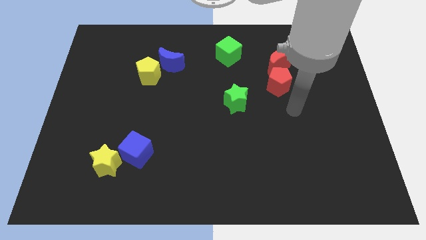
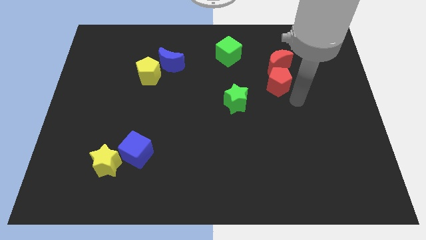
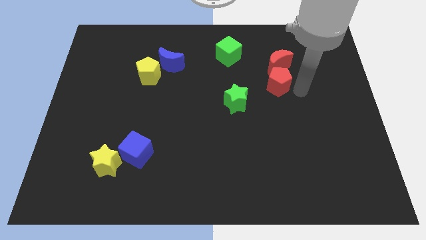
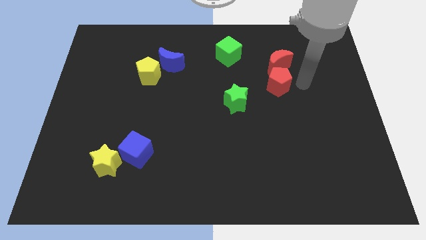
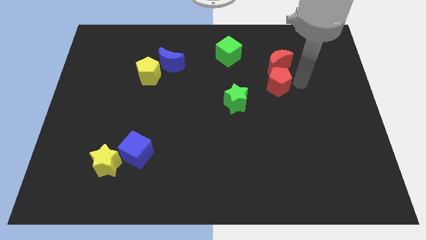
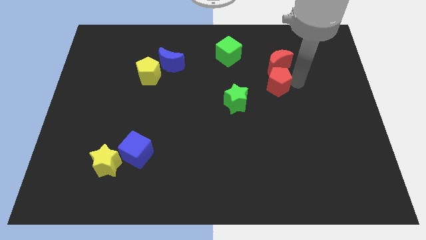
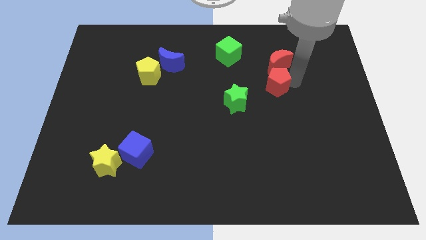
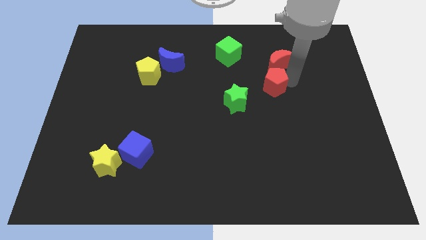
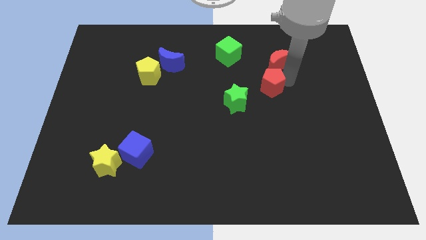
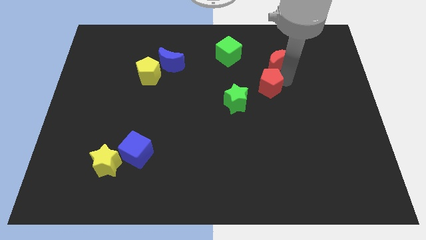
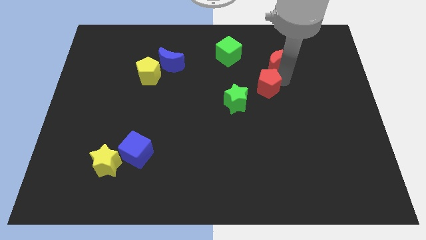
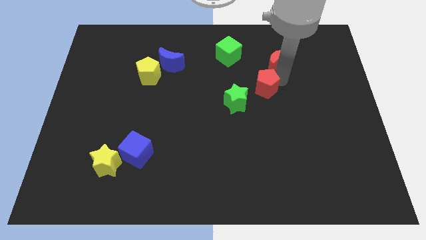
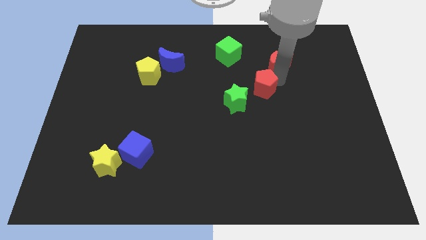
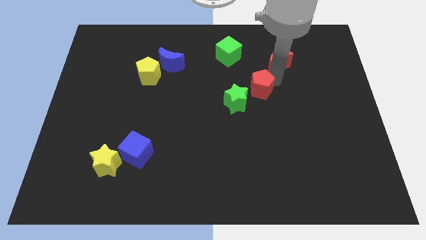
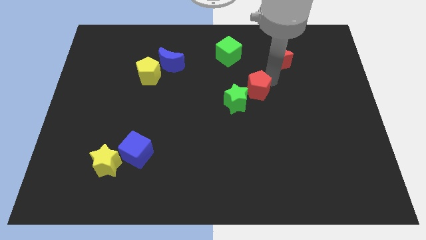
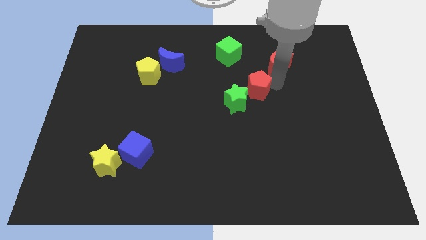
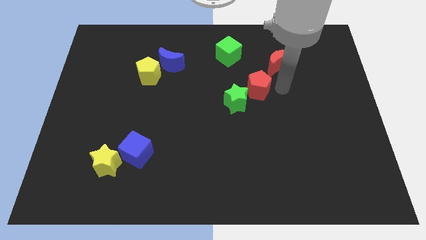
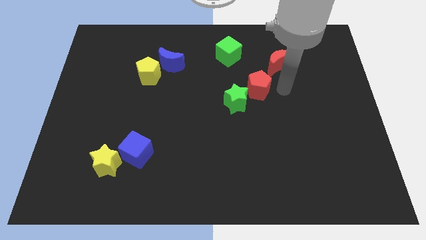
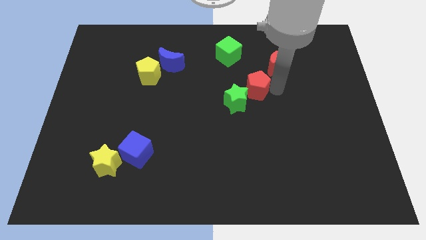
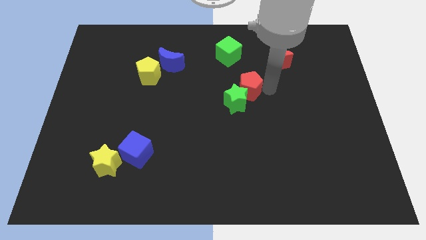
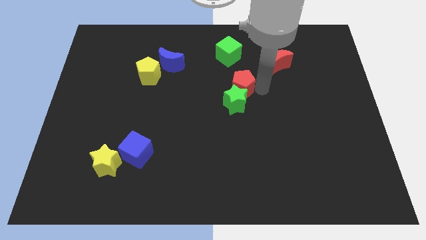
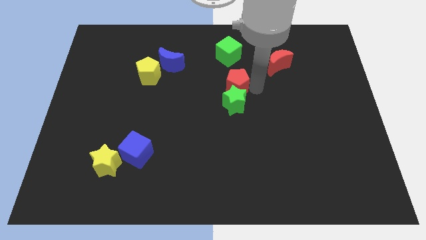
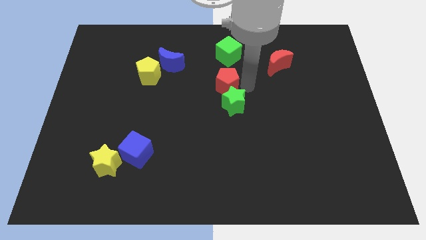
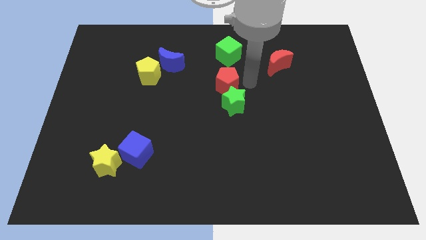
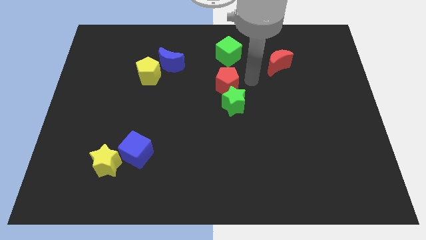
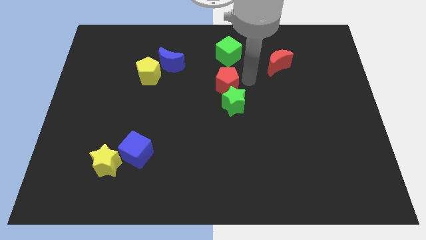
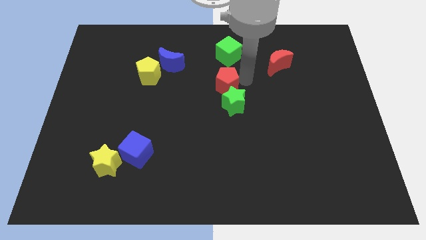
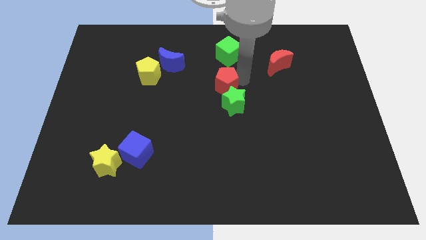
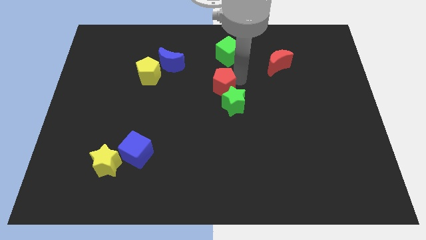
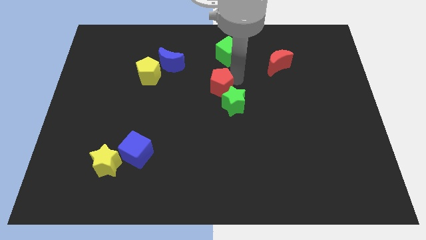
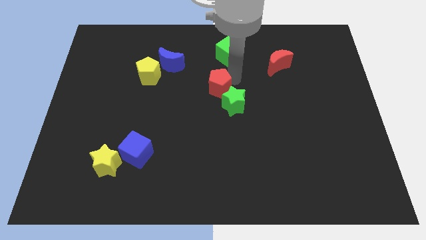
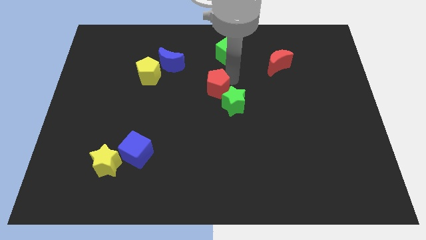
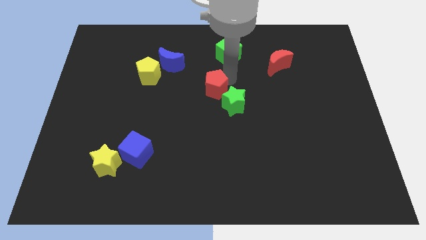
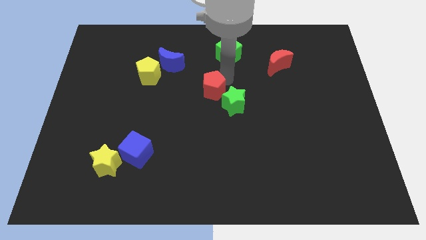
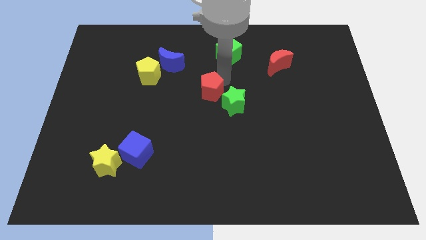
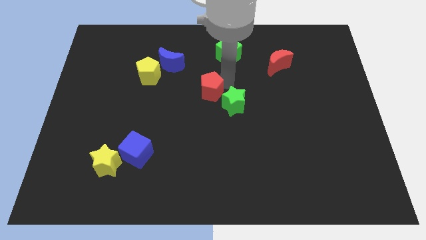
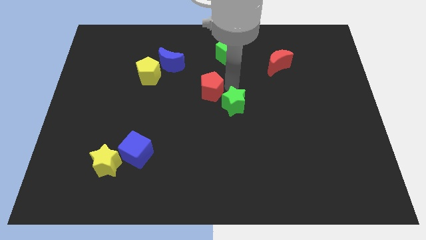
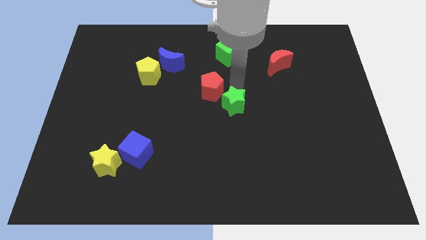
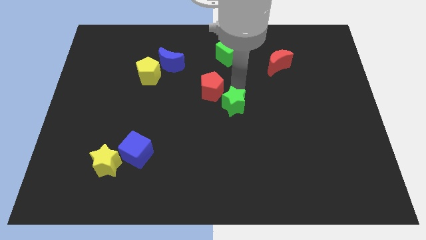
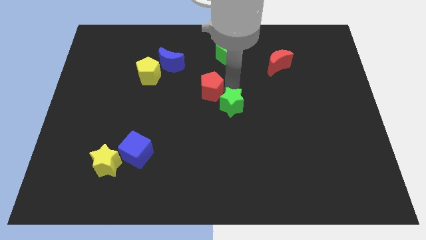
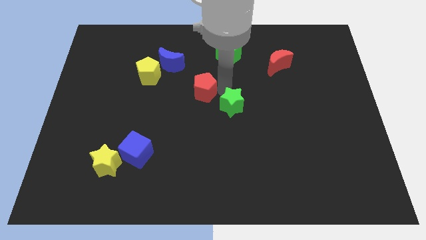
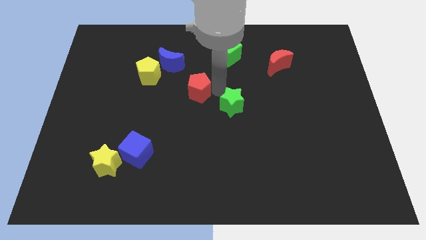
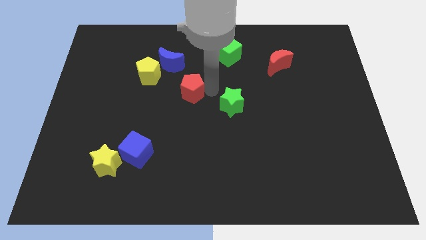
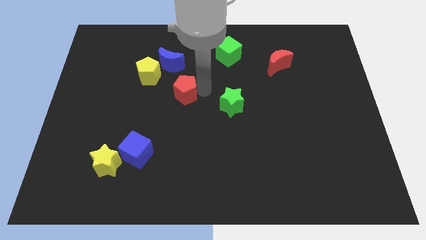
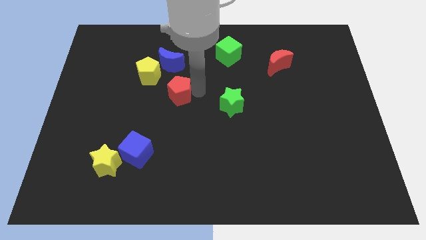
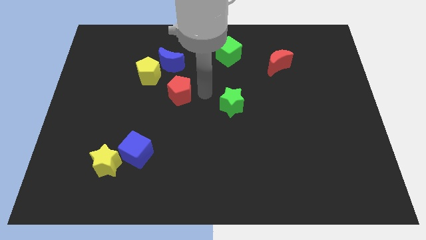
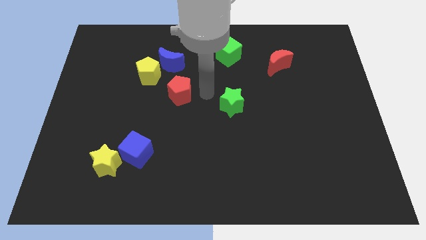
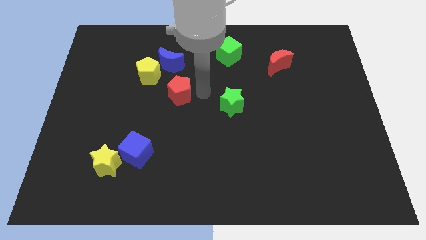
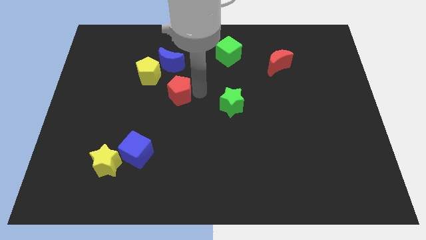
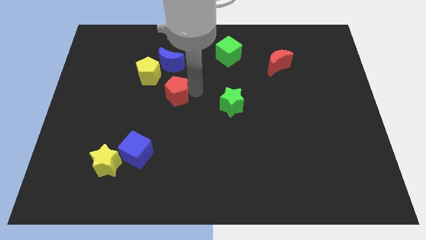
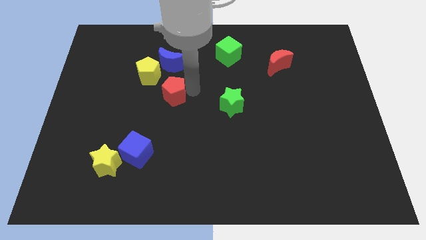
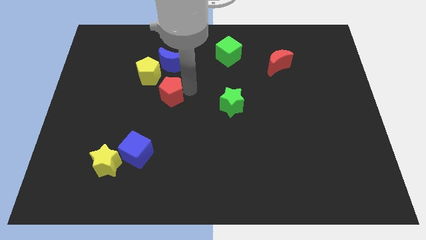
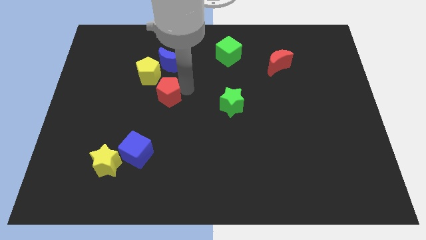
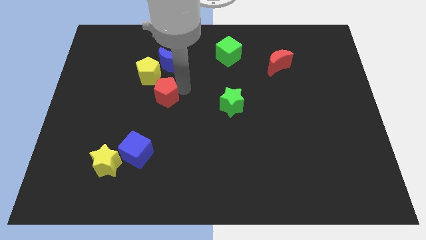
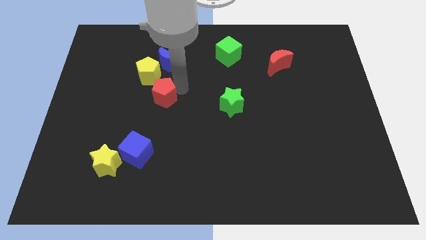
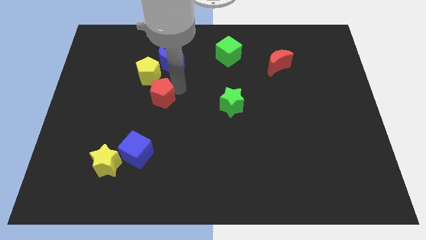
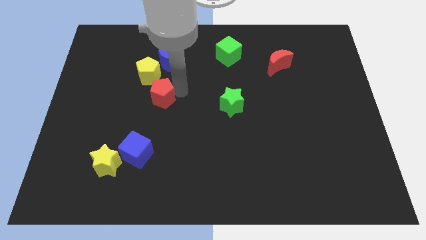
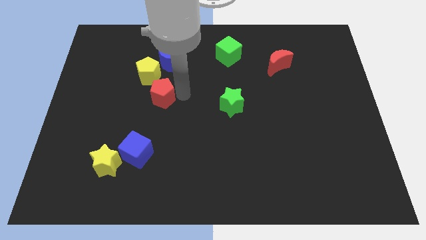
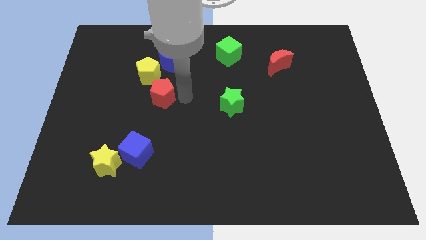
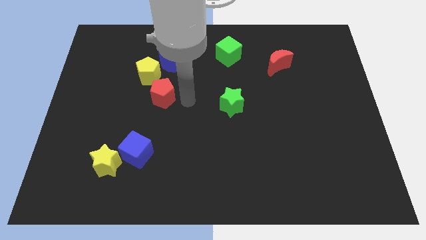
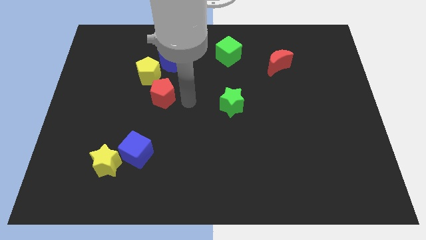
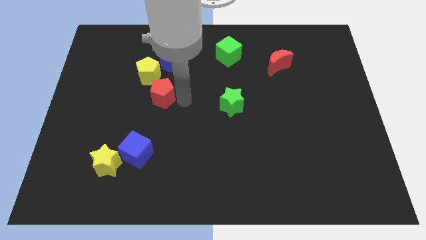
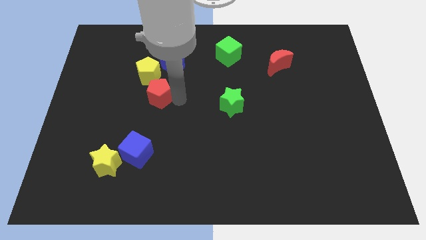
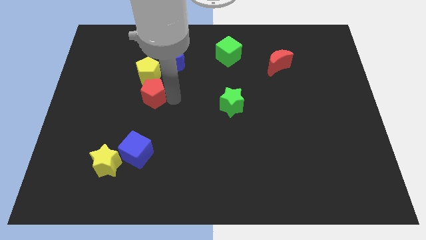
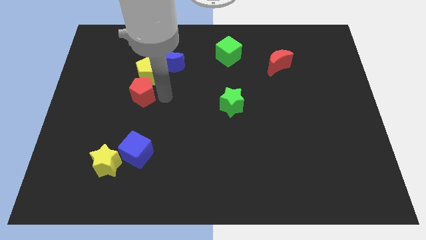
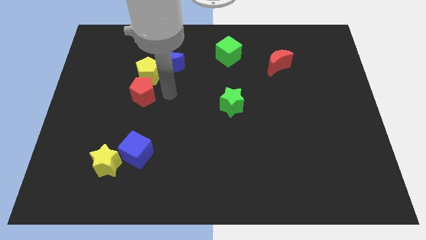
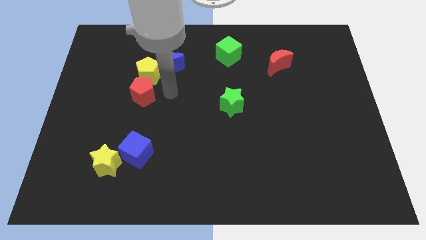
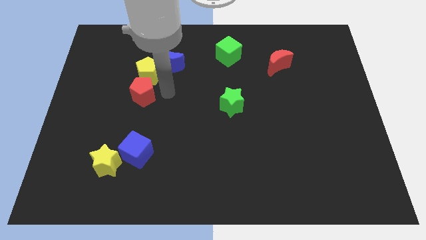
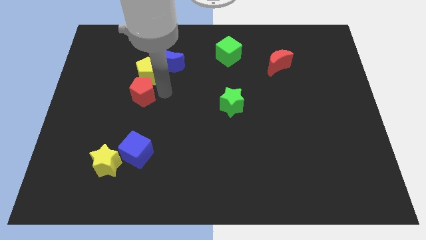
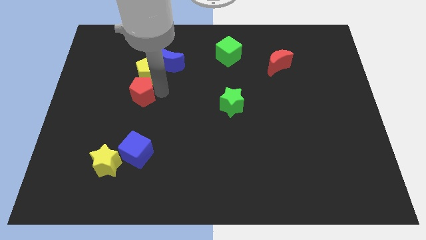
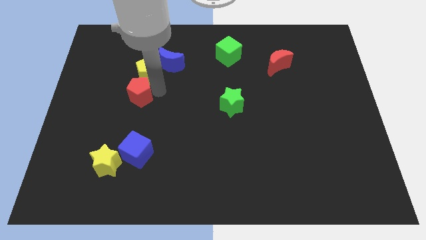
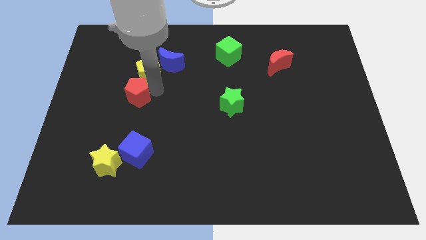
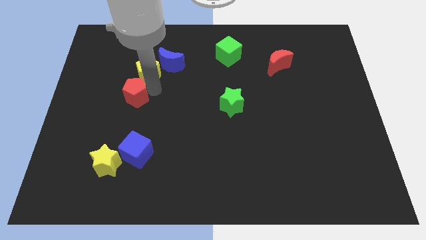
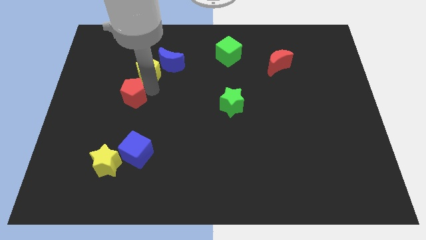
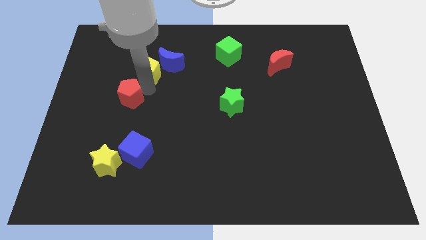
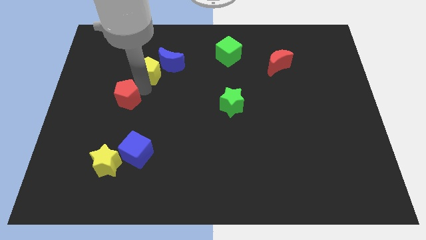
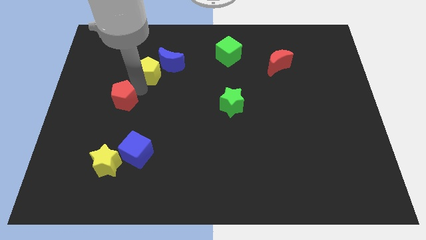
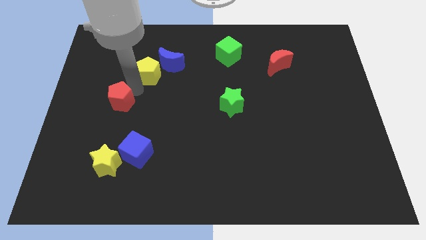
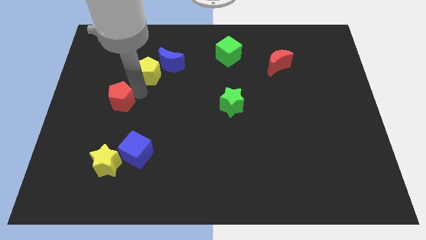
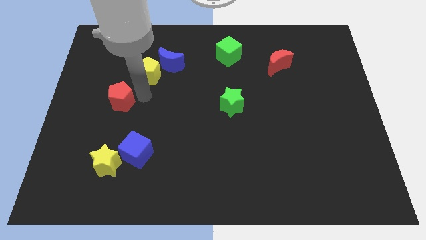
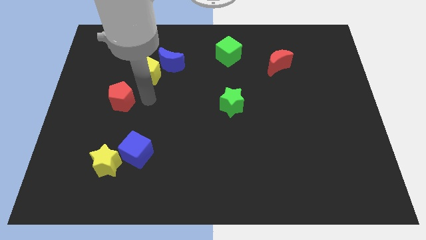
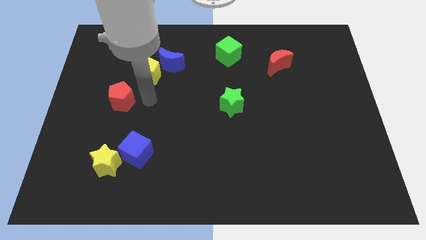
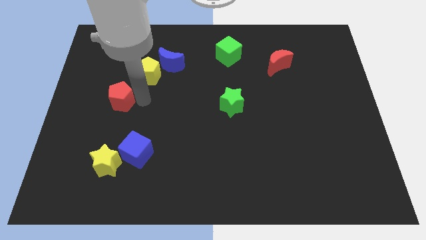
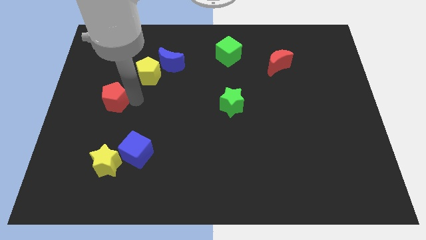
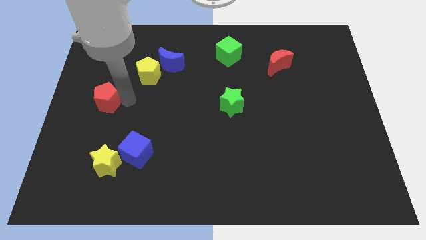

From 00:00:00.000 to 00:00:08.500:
slide the red pentagon to the center left
